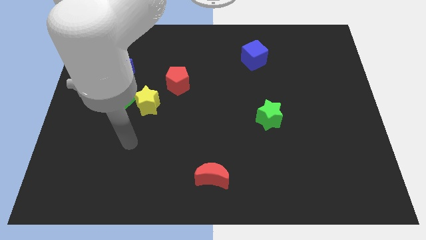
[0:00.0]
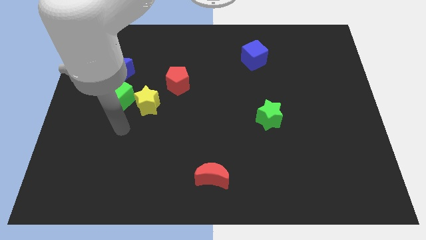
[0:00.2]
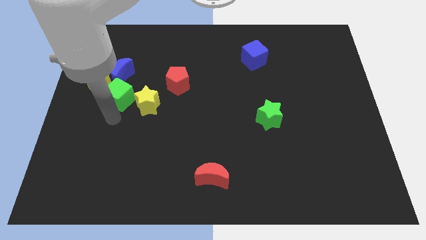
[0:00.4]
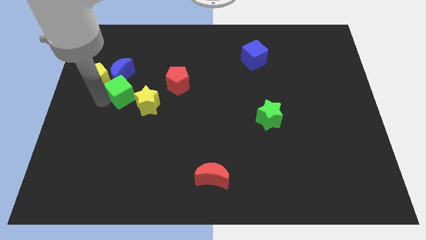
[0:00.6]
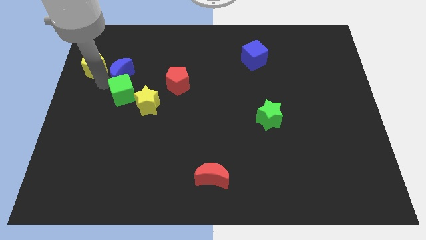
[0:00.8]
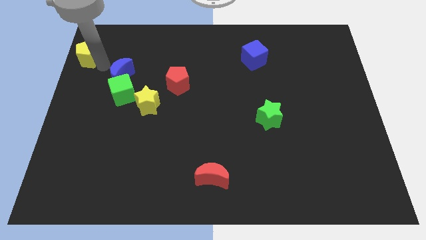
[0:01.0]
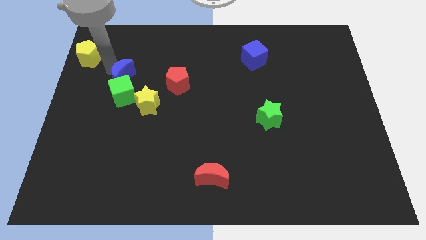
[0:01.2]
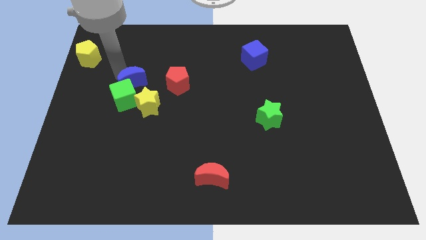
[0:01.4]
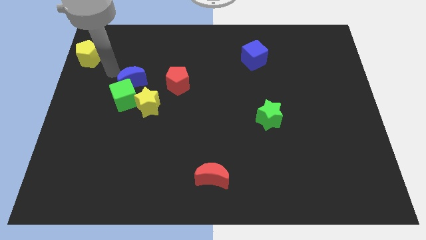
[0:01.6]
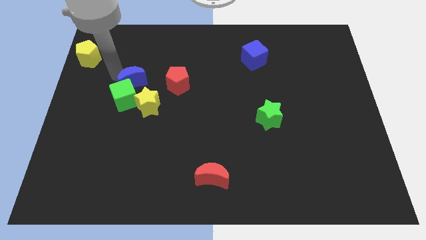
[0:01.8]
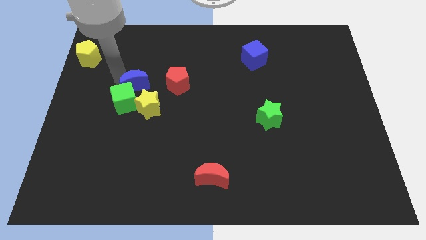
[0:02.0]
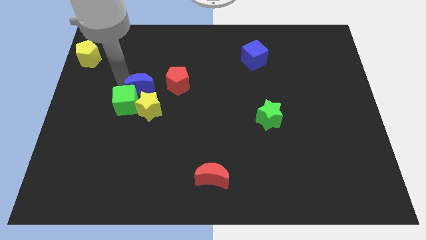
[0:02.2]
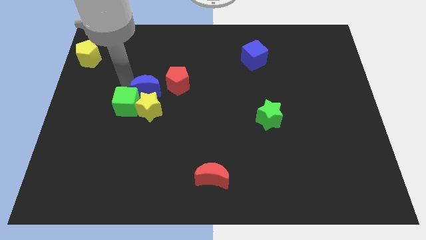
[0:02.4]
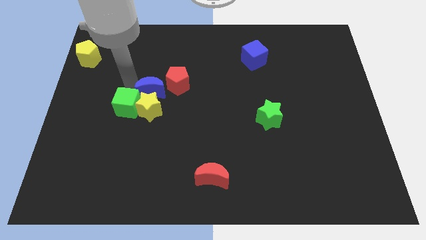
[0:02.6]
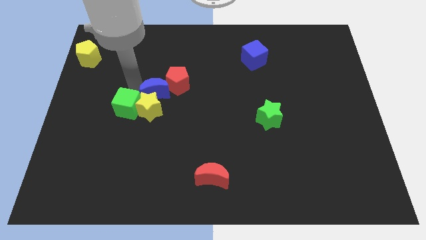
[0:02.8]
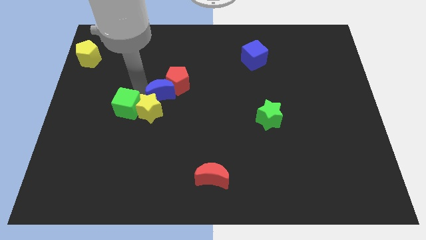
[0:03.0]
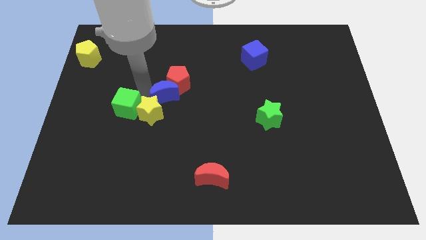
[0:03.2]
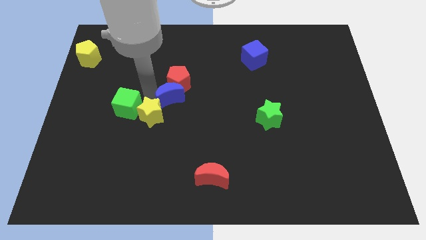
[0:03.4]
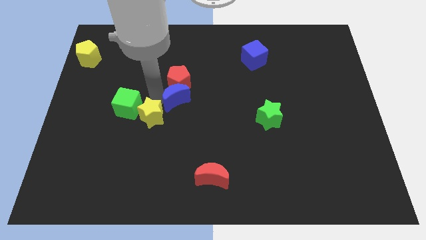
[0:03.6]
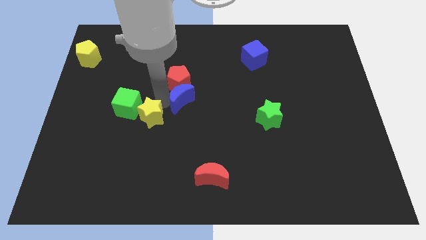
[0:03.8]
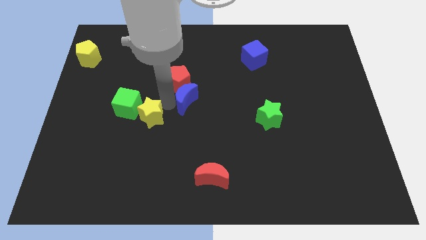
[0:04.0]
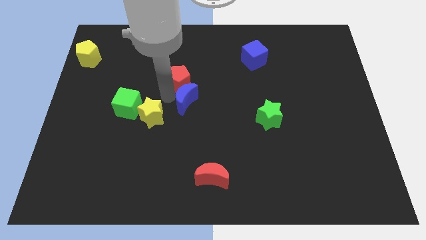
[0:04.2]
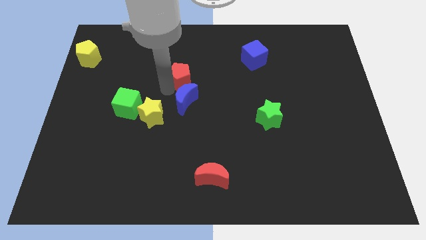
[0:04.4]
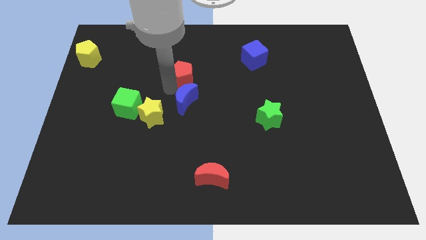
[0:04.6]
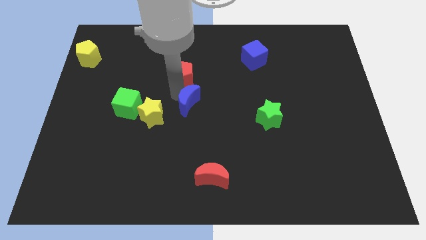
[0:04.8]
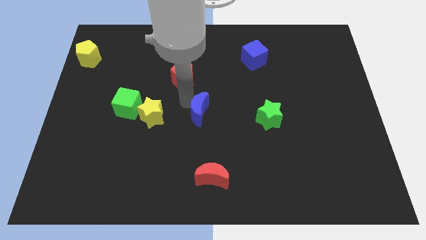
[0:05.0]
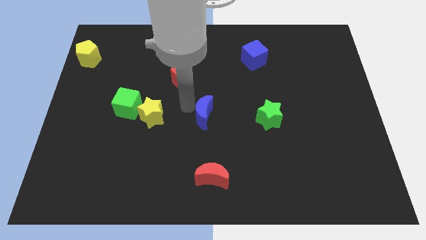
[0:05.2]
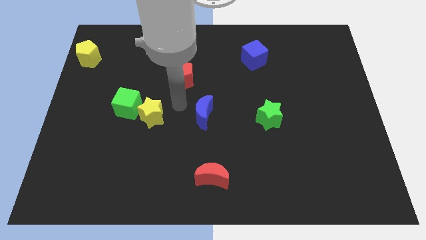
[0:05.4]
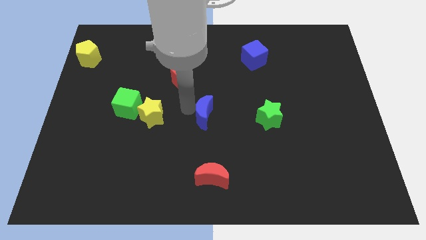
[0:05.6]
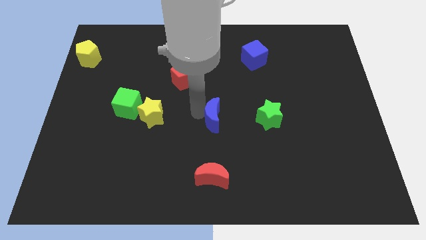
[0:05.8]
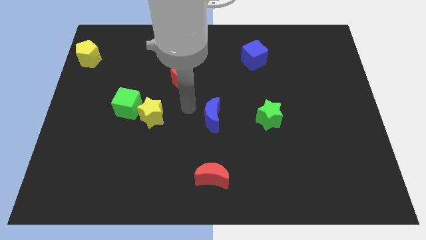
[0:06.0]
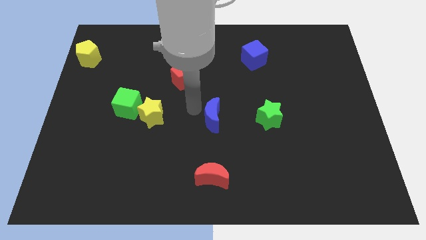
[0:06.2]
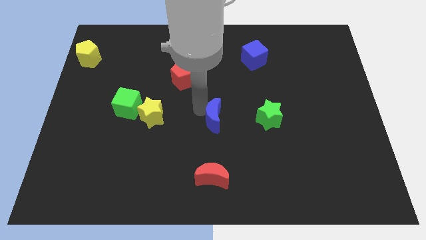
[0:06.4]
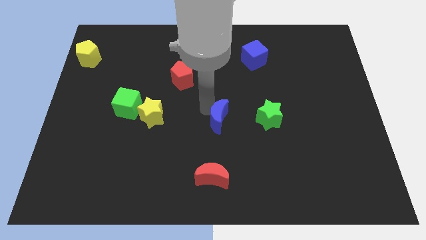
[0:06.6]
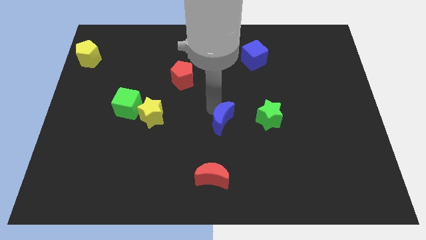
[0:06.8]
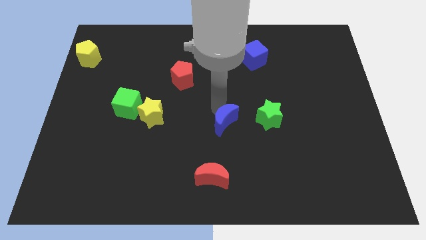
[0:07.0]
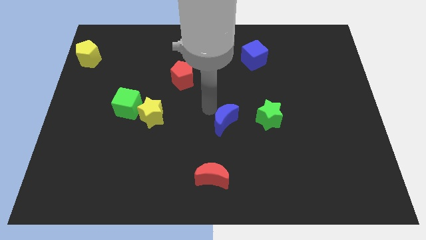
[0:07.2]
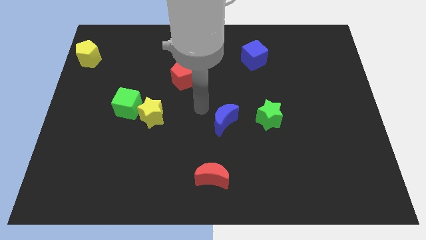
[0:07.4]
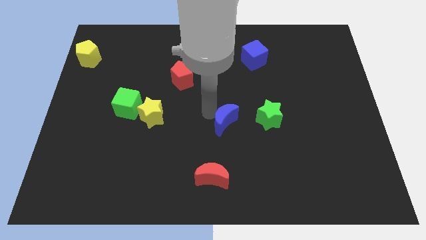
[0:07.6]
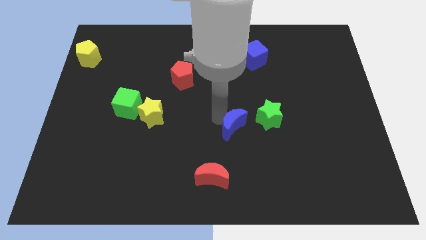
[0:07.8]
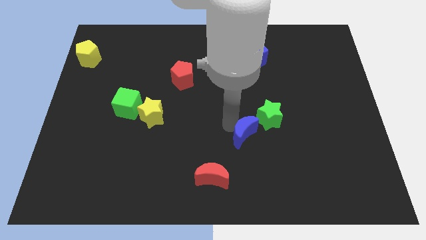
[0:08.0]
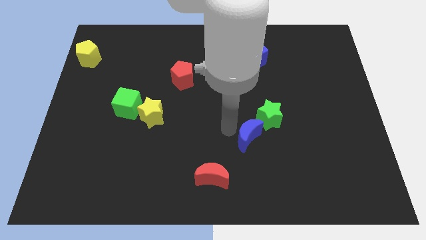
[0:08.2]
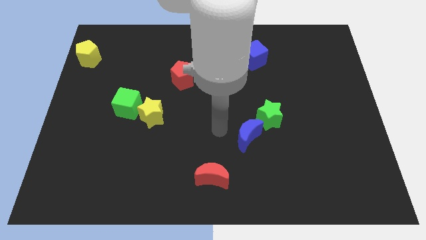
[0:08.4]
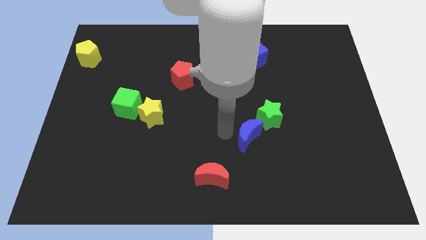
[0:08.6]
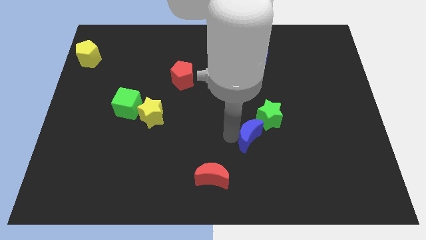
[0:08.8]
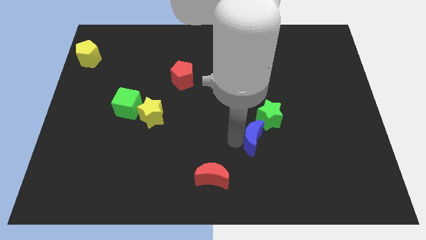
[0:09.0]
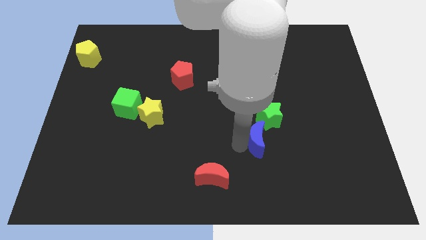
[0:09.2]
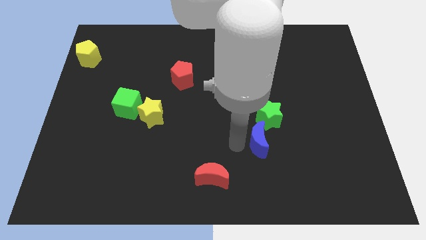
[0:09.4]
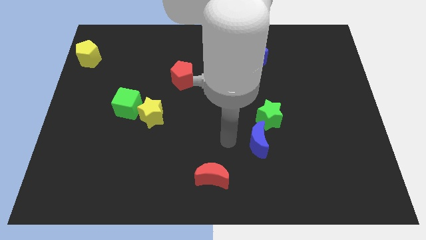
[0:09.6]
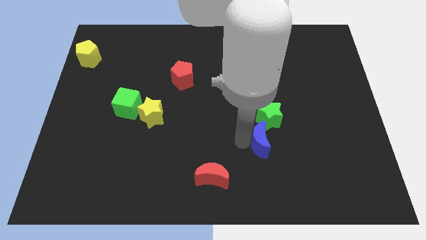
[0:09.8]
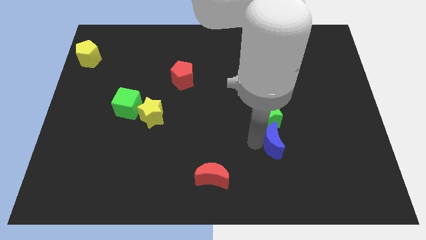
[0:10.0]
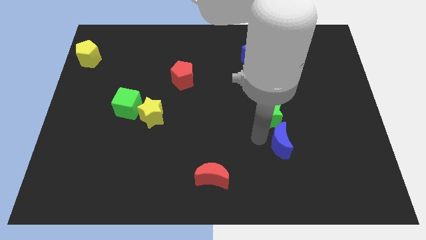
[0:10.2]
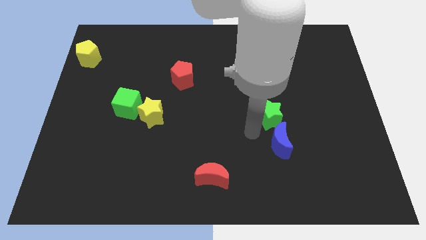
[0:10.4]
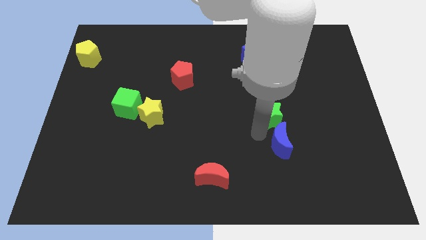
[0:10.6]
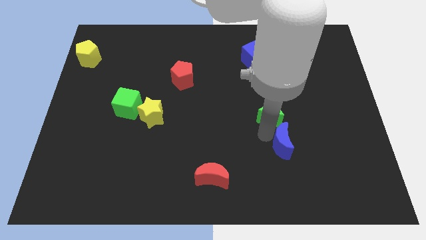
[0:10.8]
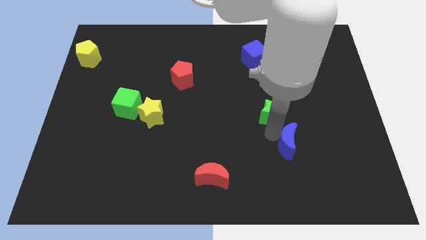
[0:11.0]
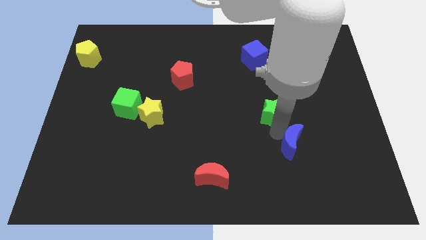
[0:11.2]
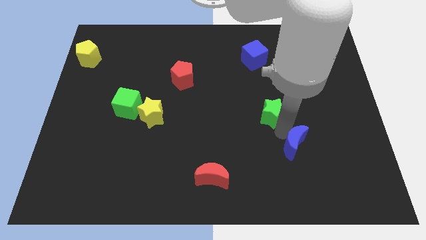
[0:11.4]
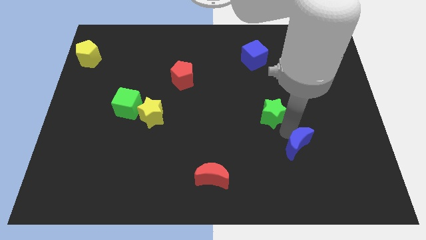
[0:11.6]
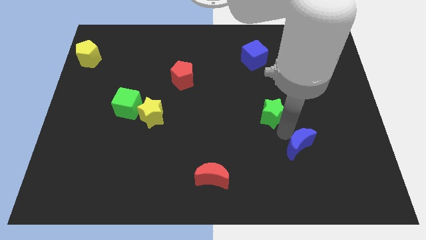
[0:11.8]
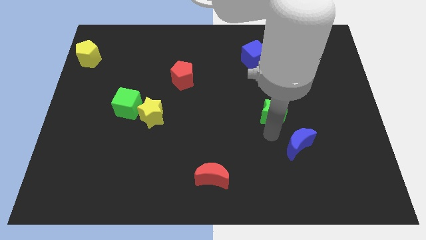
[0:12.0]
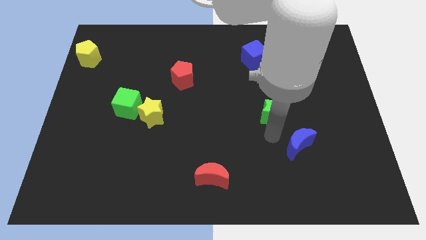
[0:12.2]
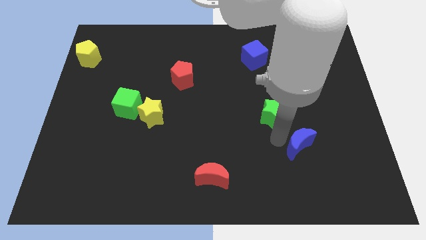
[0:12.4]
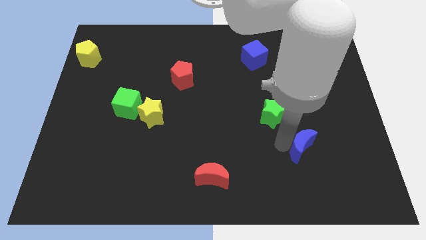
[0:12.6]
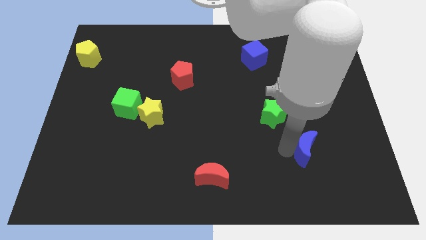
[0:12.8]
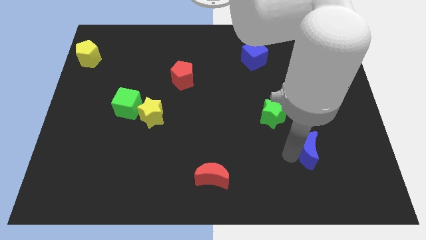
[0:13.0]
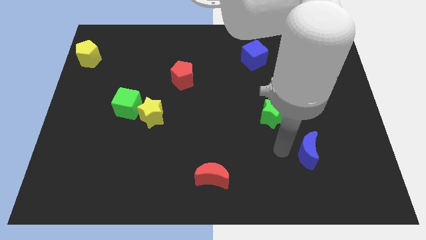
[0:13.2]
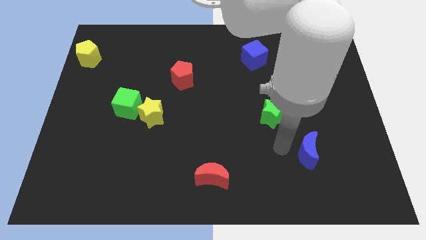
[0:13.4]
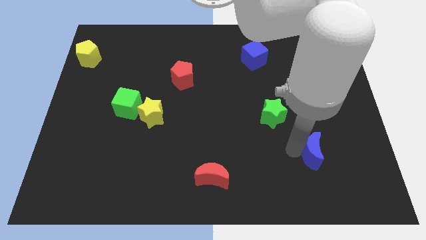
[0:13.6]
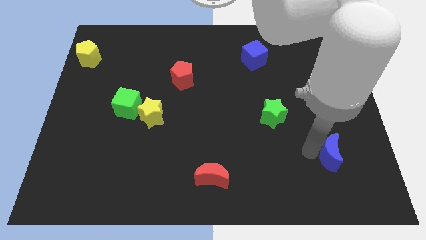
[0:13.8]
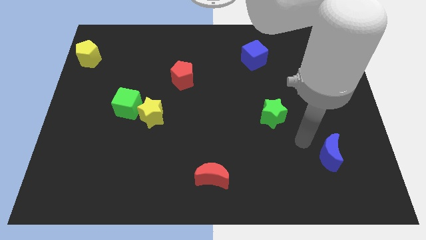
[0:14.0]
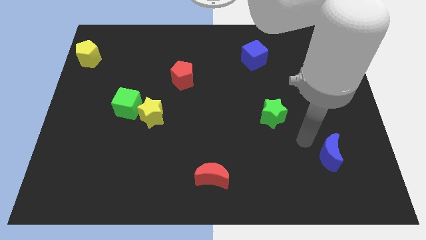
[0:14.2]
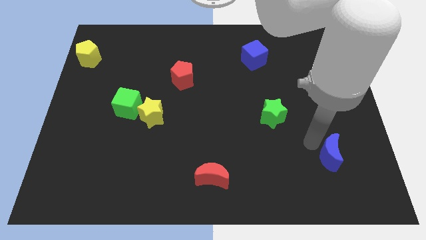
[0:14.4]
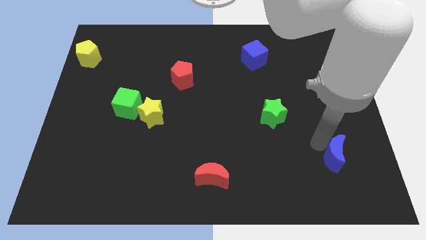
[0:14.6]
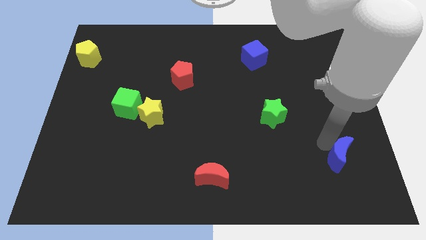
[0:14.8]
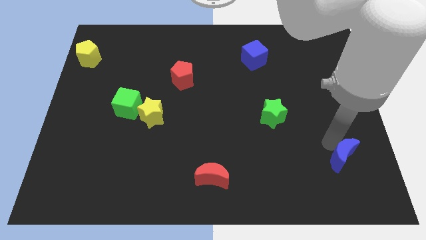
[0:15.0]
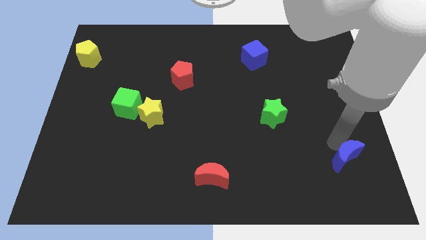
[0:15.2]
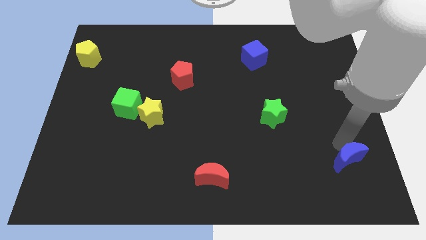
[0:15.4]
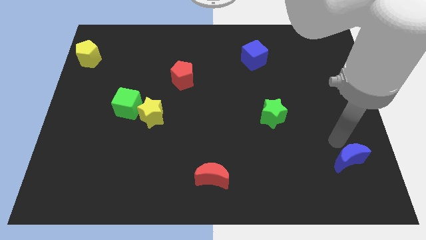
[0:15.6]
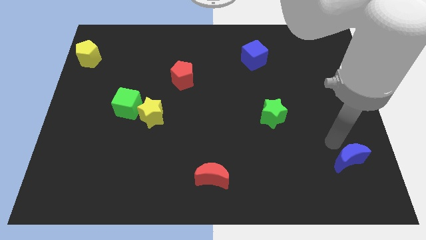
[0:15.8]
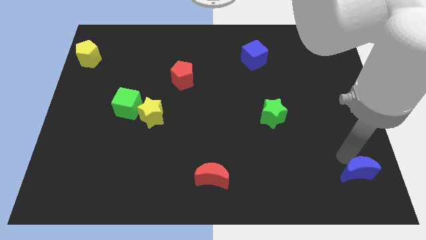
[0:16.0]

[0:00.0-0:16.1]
move the blue moon to the bottom right corner

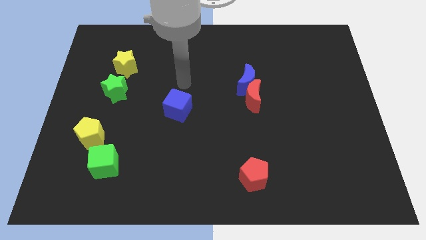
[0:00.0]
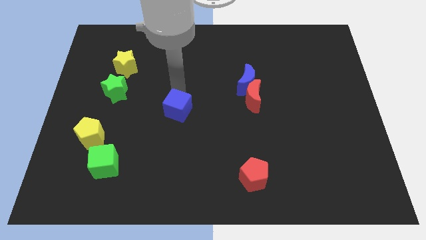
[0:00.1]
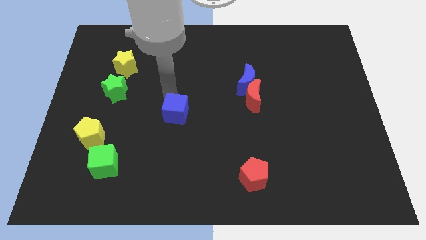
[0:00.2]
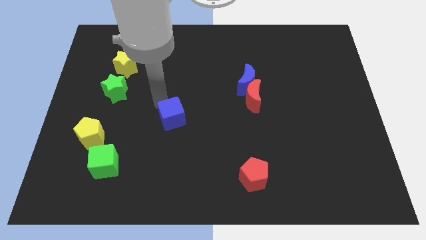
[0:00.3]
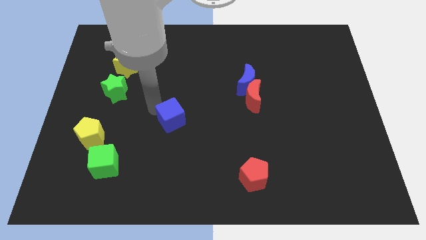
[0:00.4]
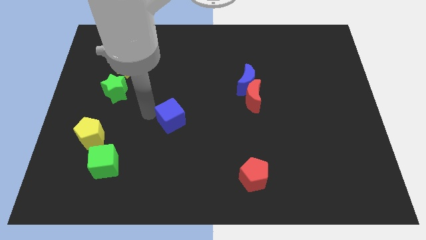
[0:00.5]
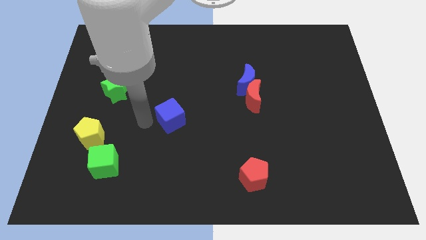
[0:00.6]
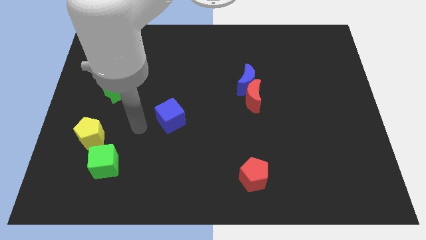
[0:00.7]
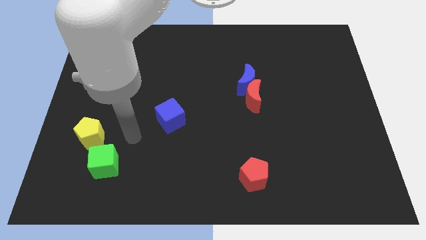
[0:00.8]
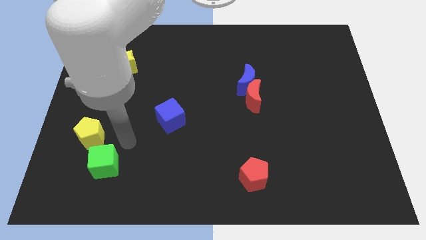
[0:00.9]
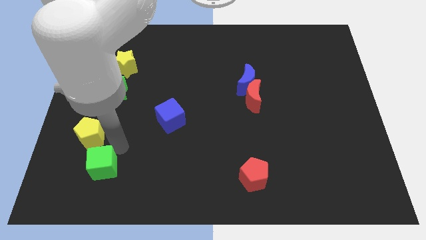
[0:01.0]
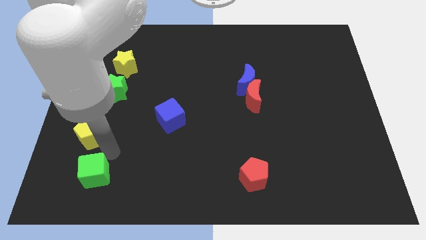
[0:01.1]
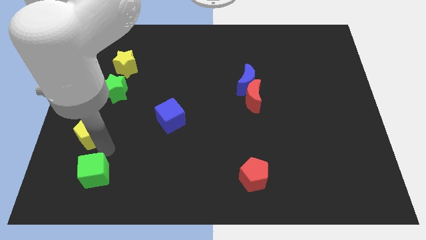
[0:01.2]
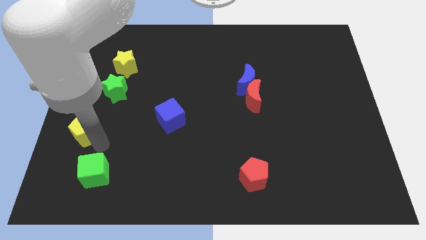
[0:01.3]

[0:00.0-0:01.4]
push the yellow pentagon to the left side
